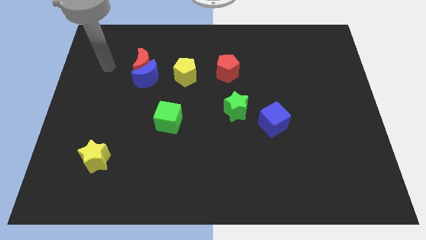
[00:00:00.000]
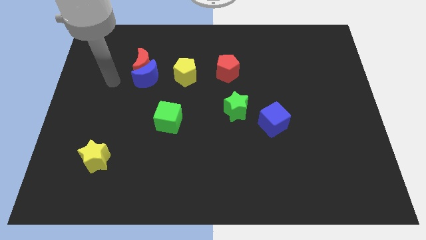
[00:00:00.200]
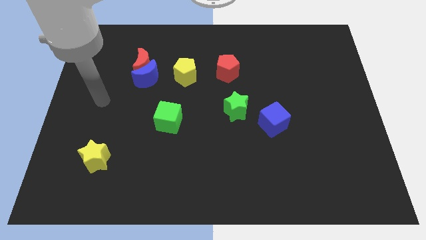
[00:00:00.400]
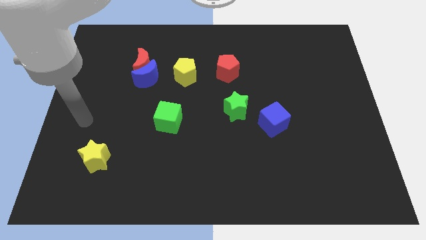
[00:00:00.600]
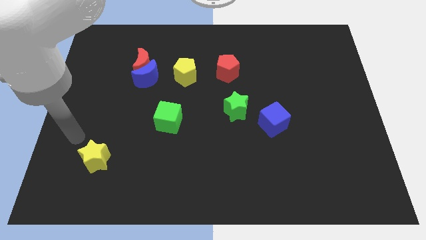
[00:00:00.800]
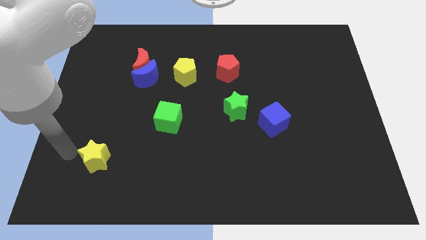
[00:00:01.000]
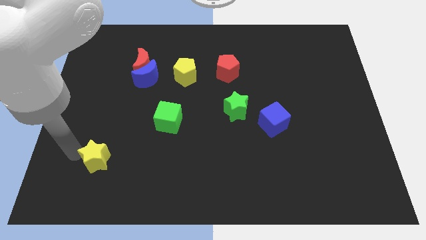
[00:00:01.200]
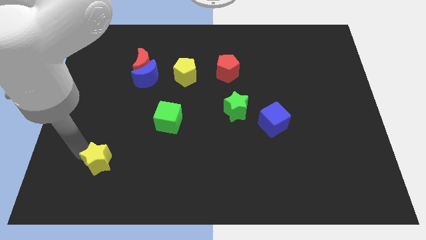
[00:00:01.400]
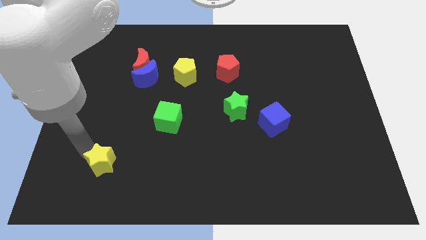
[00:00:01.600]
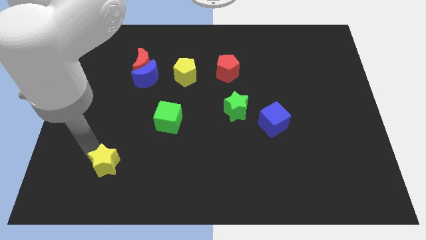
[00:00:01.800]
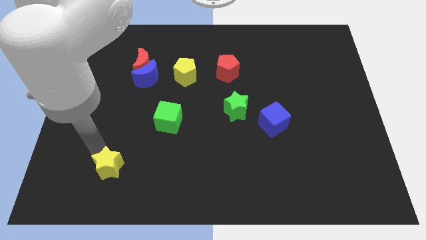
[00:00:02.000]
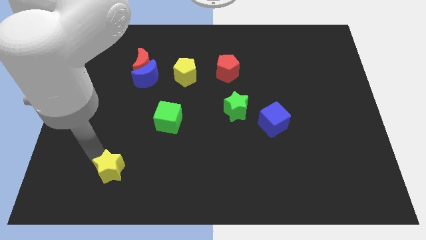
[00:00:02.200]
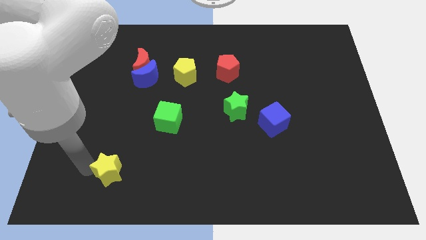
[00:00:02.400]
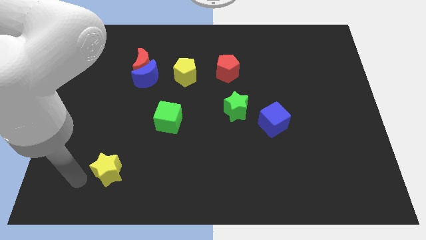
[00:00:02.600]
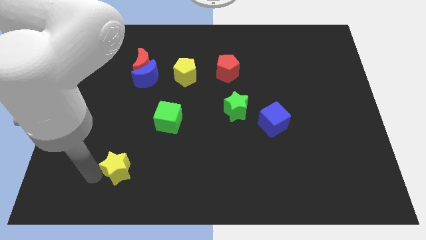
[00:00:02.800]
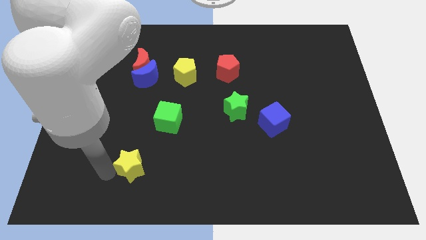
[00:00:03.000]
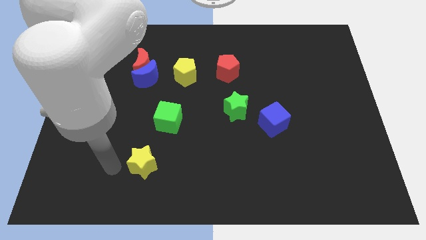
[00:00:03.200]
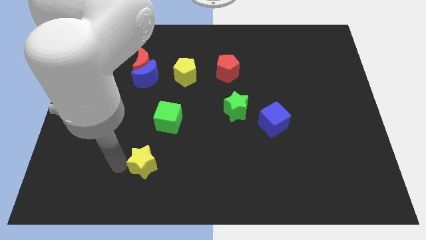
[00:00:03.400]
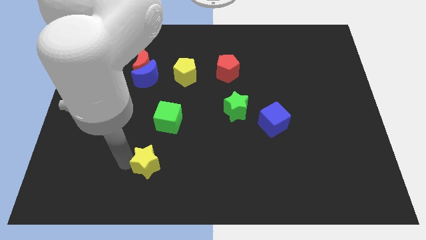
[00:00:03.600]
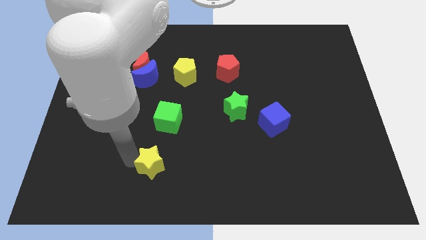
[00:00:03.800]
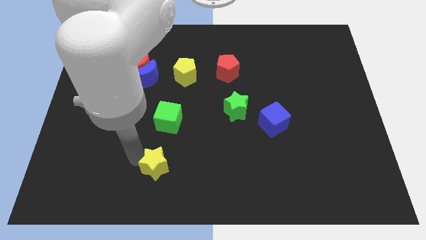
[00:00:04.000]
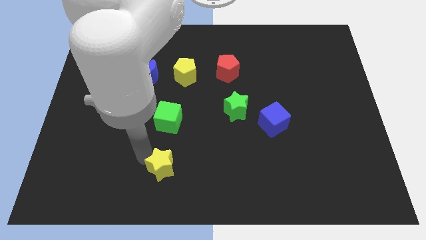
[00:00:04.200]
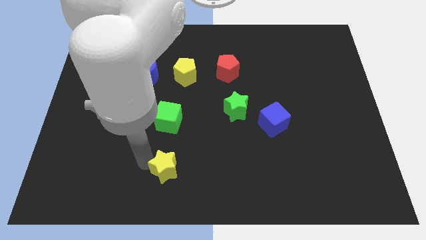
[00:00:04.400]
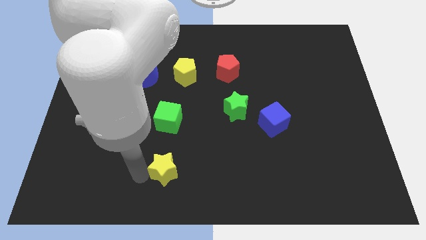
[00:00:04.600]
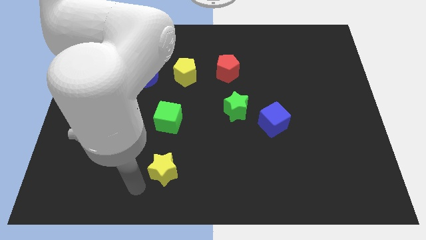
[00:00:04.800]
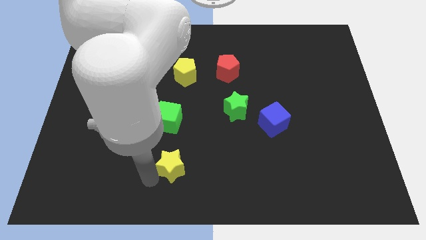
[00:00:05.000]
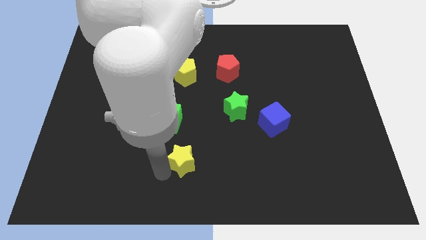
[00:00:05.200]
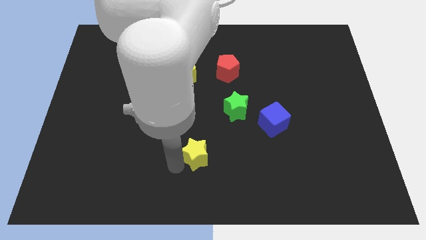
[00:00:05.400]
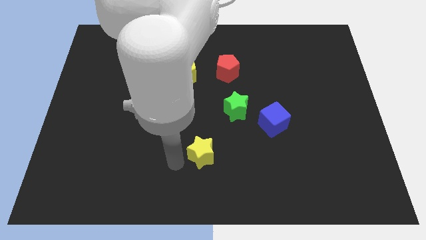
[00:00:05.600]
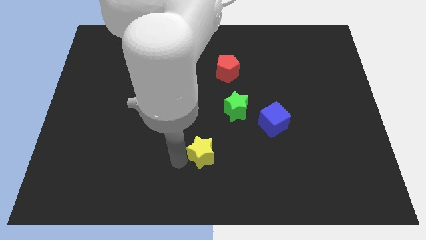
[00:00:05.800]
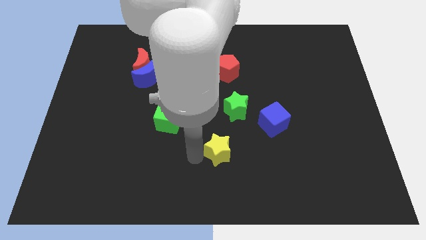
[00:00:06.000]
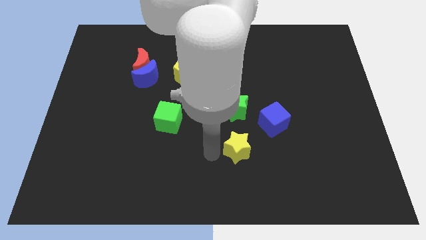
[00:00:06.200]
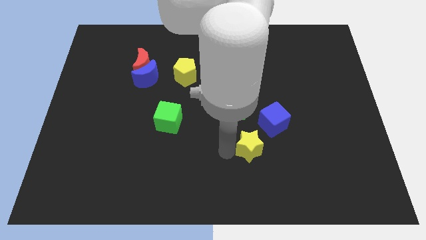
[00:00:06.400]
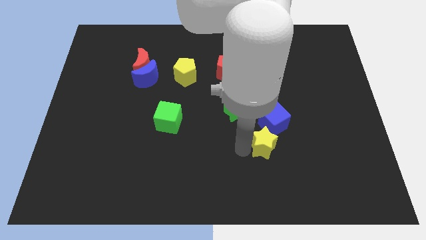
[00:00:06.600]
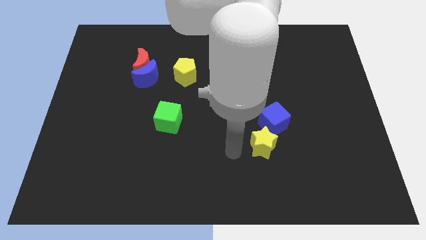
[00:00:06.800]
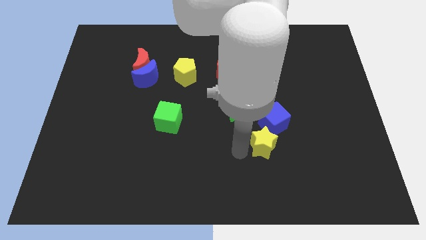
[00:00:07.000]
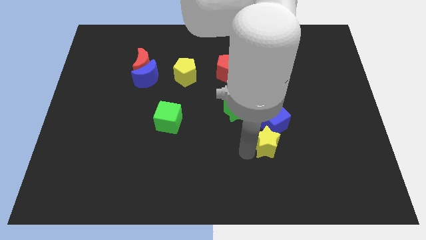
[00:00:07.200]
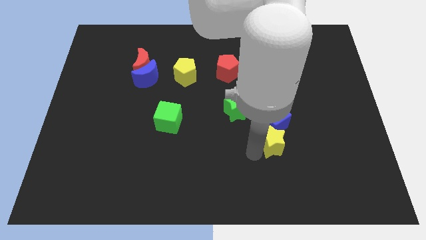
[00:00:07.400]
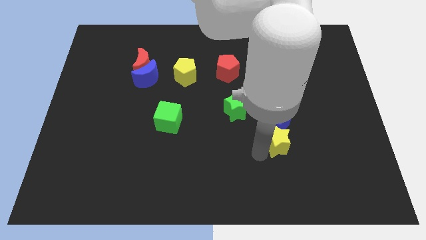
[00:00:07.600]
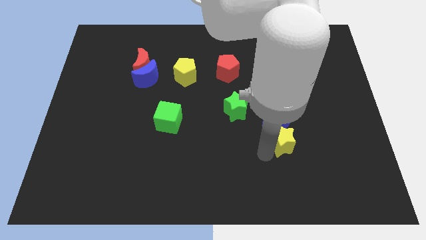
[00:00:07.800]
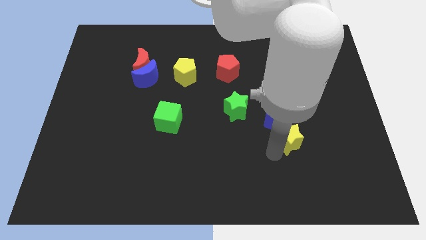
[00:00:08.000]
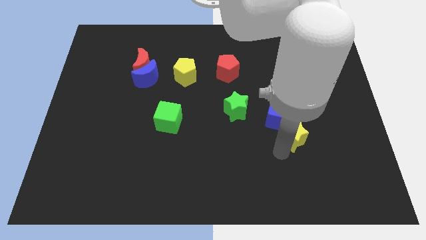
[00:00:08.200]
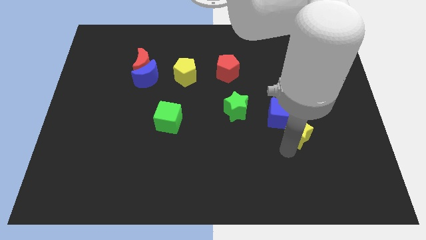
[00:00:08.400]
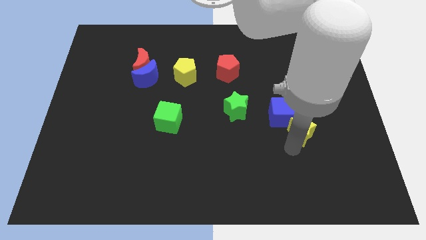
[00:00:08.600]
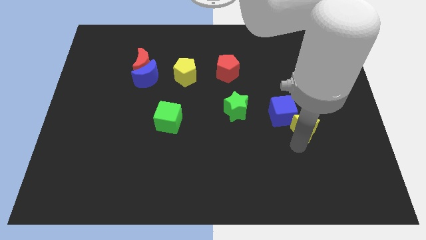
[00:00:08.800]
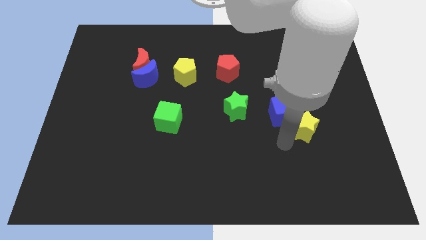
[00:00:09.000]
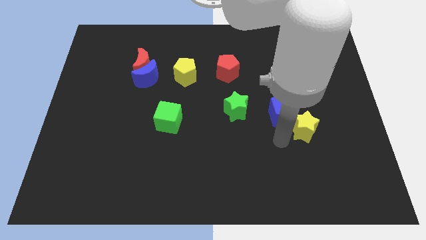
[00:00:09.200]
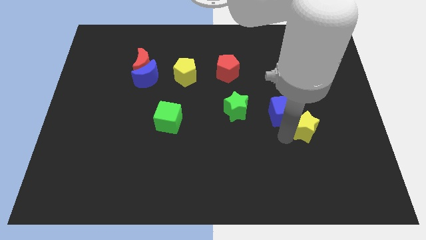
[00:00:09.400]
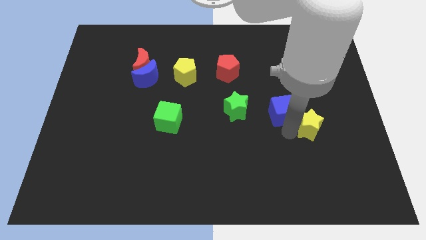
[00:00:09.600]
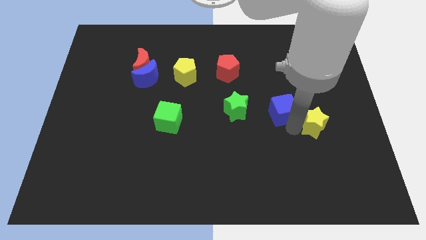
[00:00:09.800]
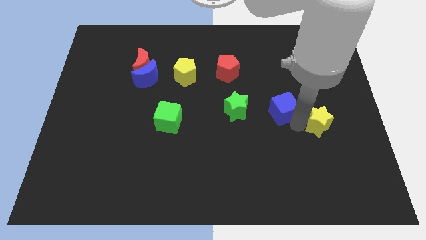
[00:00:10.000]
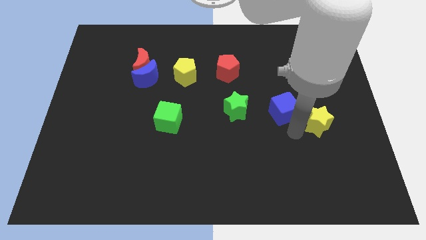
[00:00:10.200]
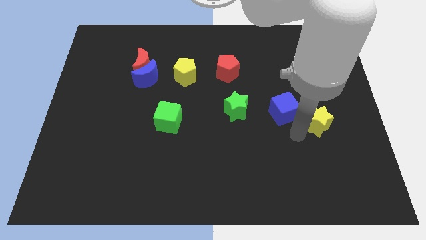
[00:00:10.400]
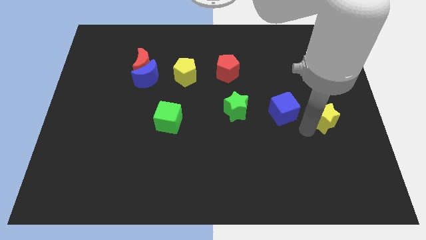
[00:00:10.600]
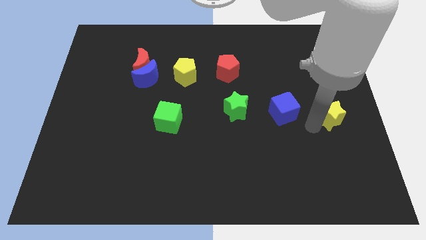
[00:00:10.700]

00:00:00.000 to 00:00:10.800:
push the yellow star to the right side of the board

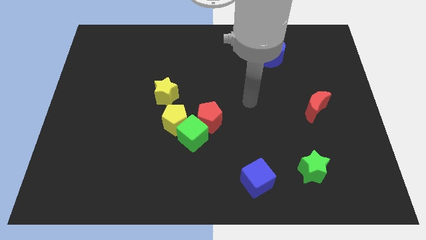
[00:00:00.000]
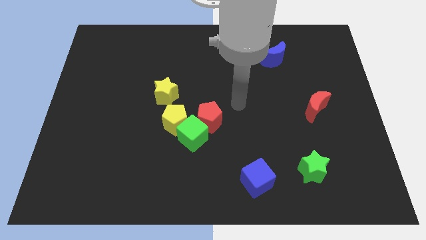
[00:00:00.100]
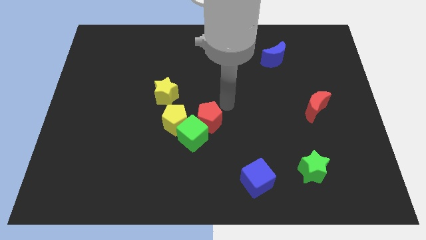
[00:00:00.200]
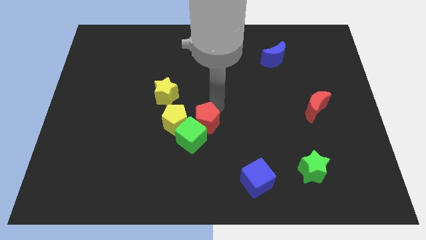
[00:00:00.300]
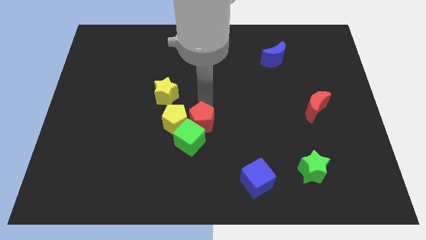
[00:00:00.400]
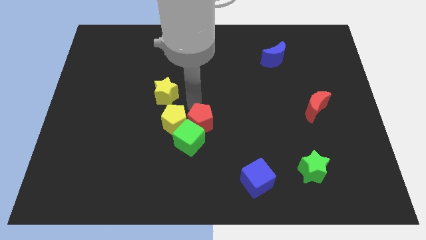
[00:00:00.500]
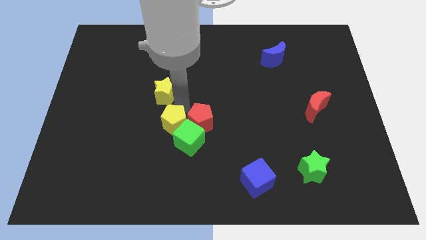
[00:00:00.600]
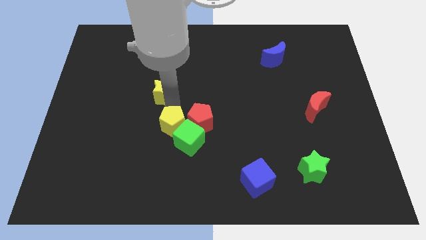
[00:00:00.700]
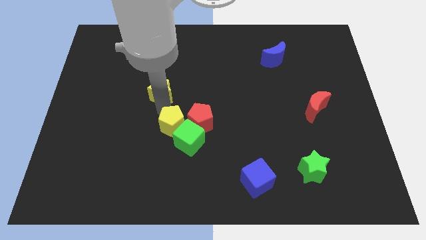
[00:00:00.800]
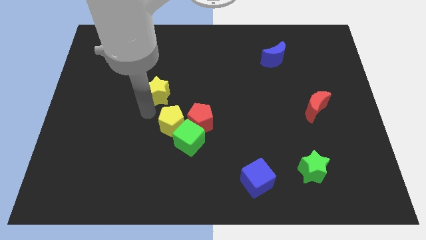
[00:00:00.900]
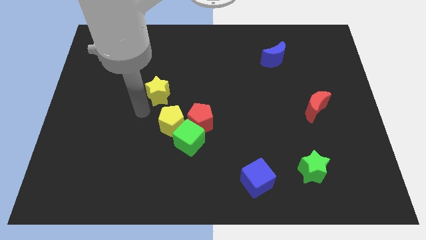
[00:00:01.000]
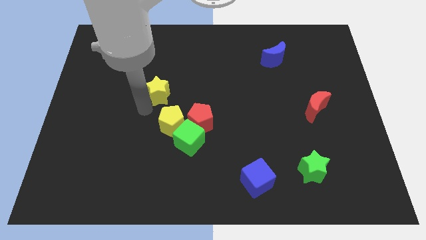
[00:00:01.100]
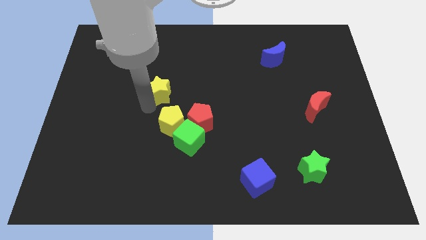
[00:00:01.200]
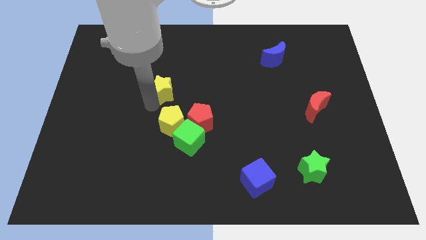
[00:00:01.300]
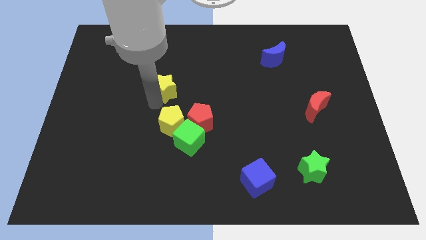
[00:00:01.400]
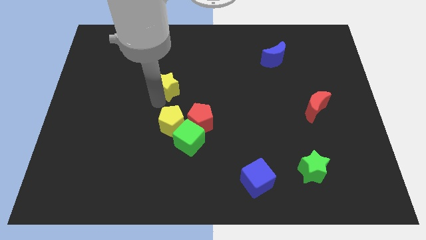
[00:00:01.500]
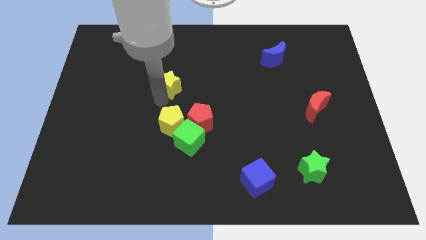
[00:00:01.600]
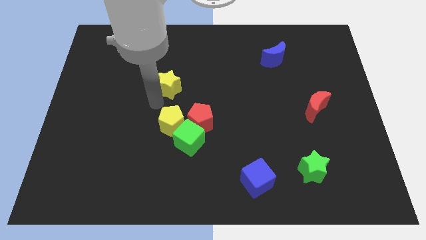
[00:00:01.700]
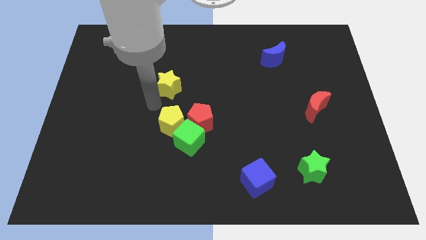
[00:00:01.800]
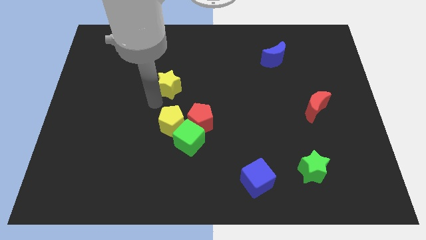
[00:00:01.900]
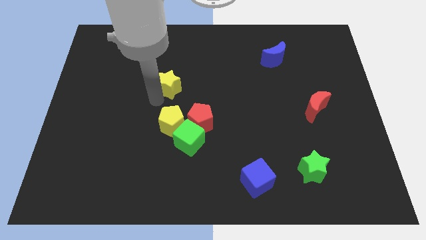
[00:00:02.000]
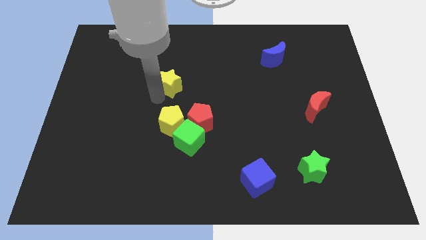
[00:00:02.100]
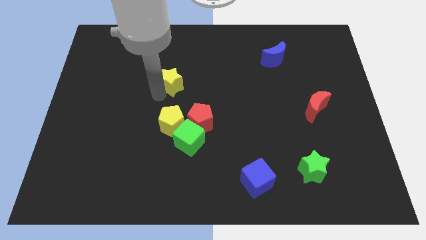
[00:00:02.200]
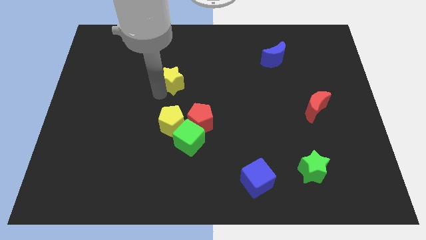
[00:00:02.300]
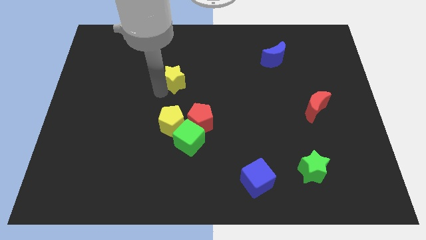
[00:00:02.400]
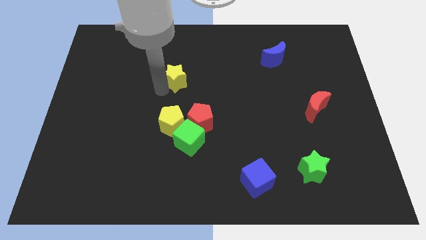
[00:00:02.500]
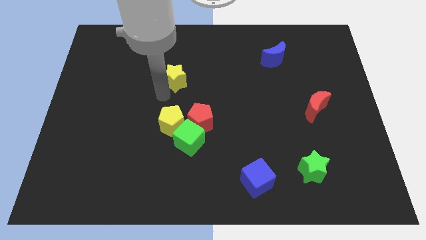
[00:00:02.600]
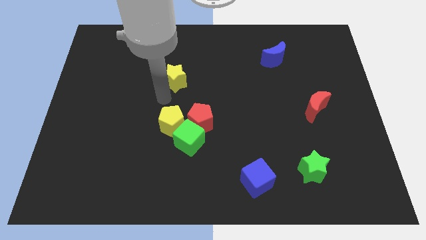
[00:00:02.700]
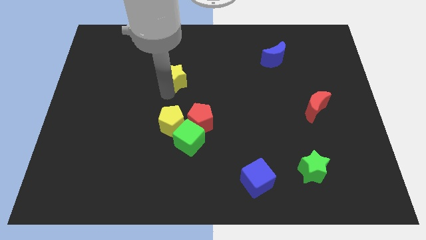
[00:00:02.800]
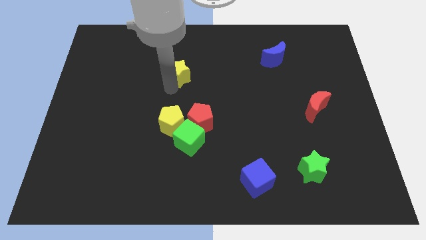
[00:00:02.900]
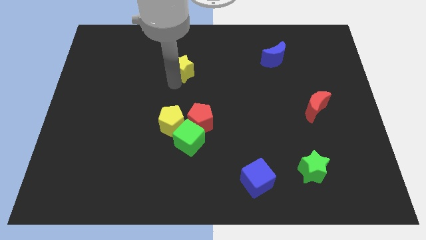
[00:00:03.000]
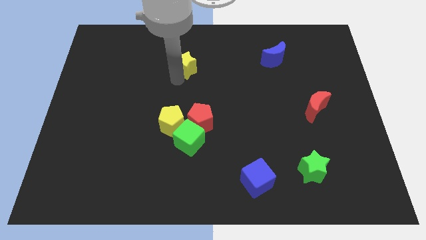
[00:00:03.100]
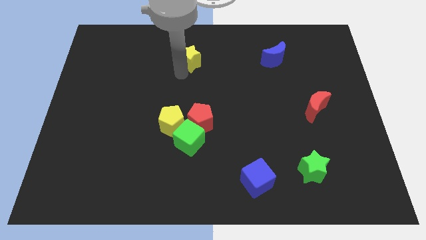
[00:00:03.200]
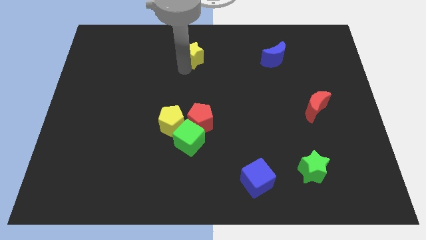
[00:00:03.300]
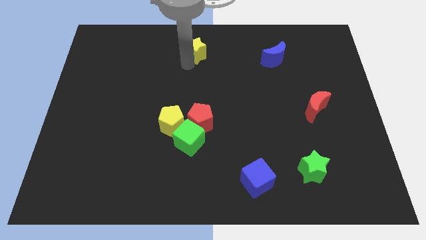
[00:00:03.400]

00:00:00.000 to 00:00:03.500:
push the yellow star to the top
